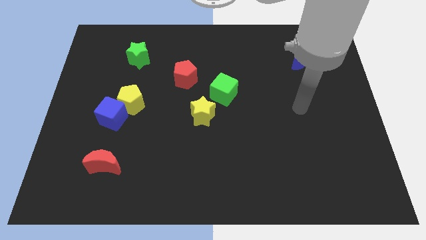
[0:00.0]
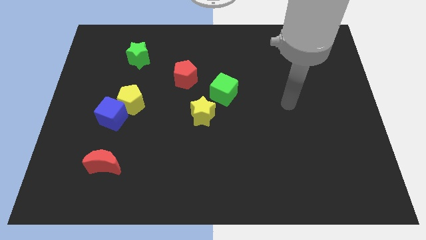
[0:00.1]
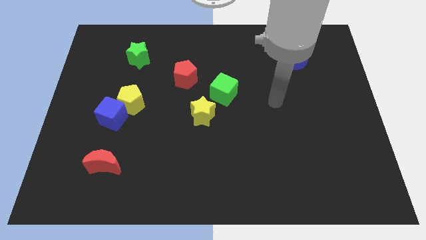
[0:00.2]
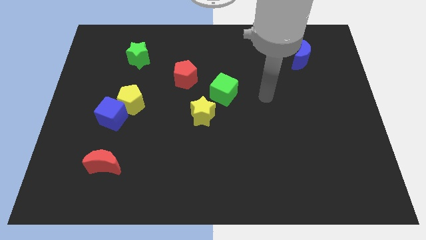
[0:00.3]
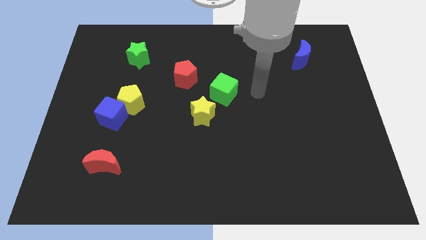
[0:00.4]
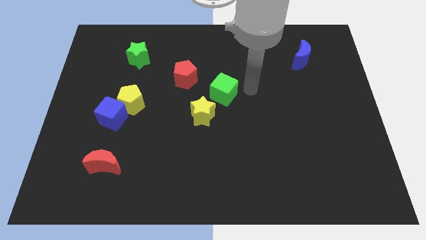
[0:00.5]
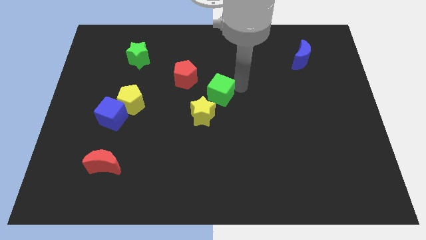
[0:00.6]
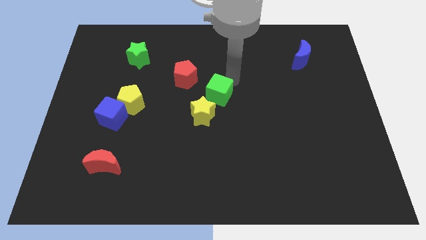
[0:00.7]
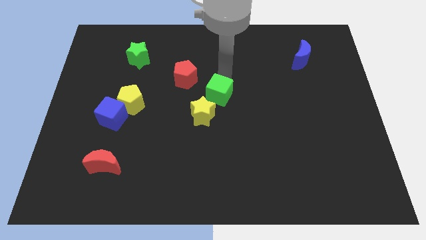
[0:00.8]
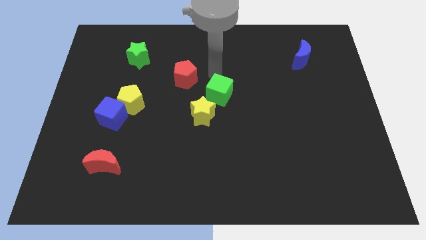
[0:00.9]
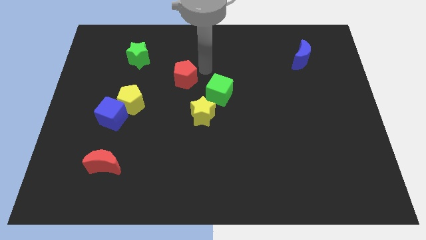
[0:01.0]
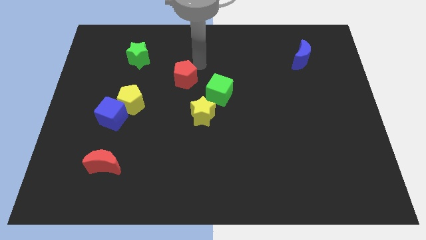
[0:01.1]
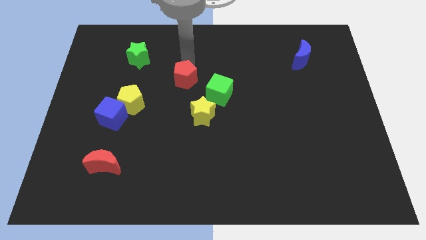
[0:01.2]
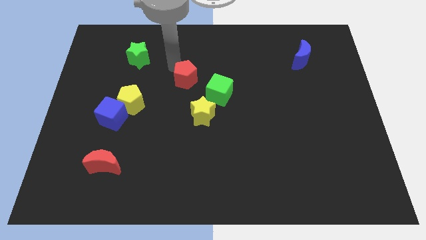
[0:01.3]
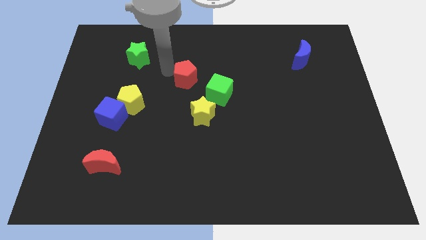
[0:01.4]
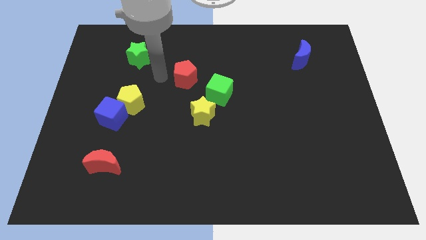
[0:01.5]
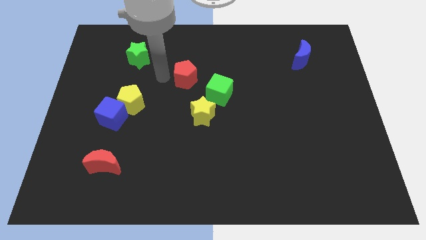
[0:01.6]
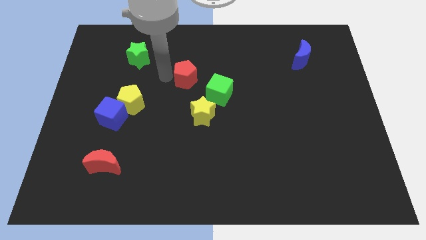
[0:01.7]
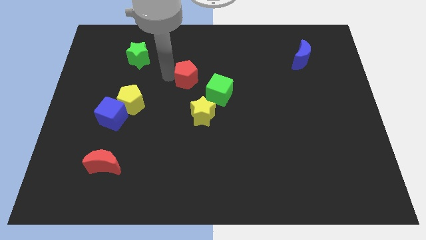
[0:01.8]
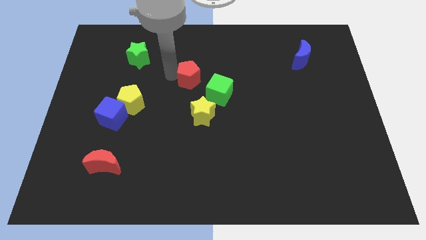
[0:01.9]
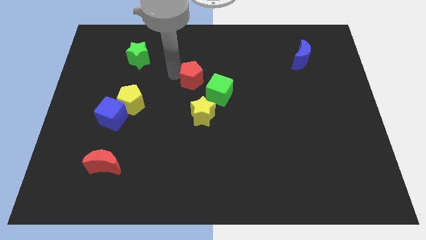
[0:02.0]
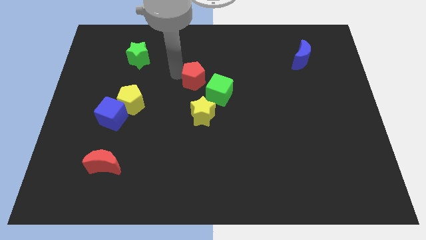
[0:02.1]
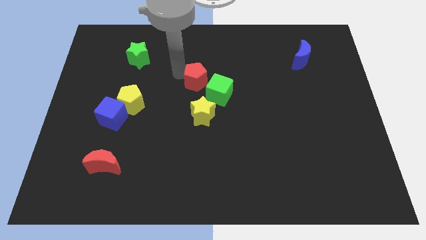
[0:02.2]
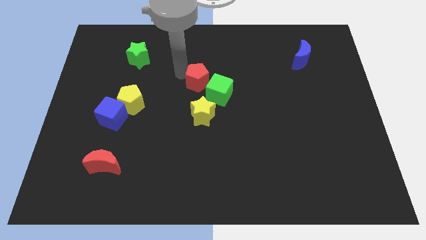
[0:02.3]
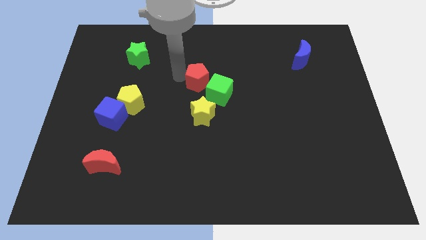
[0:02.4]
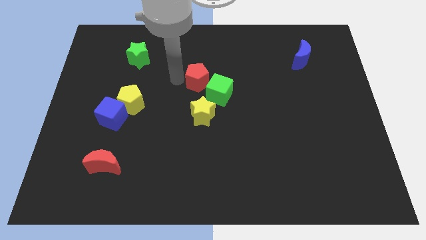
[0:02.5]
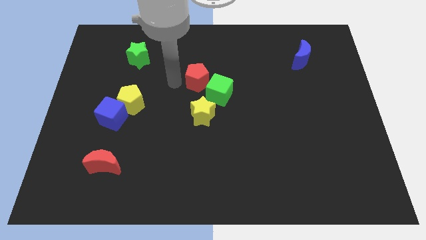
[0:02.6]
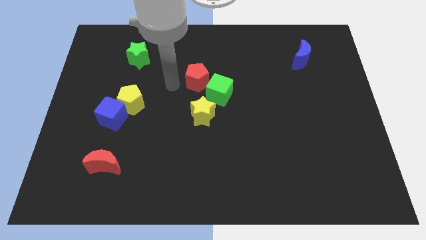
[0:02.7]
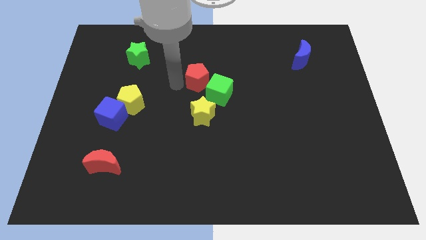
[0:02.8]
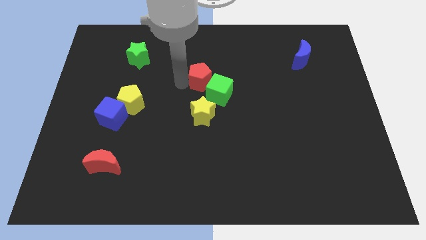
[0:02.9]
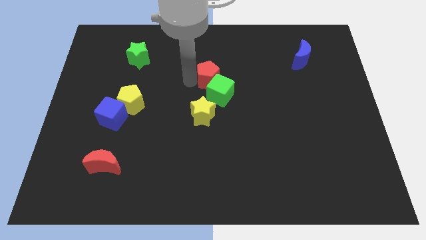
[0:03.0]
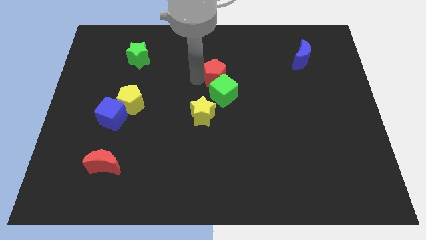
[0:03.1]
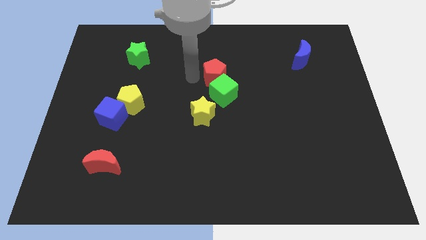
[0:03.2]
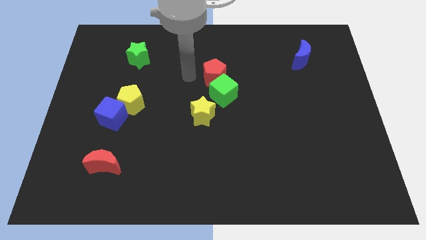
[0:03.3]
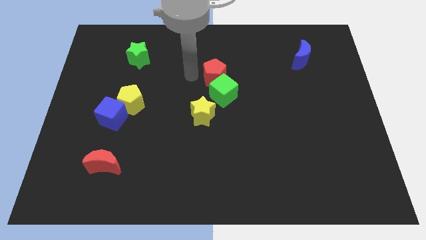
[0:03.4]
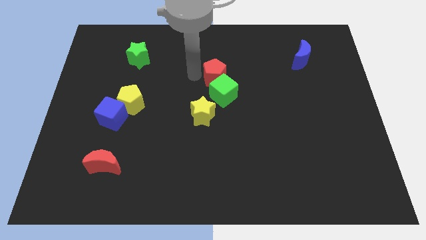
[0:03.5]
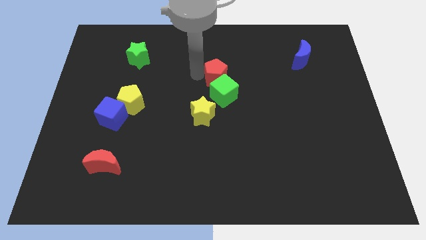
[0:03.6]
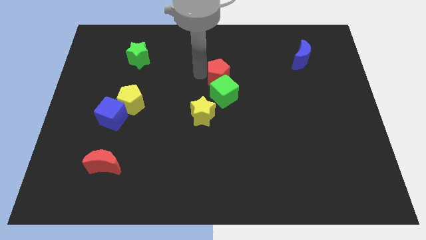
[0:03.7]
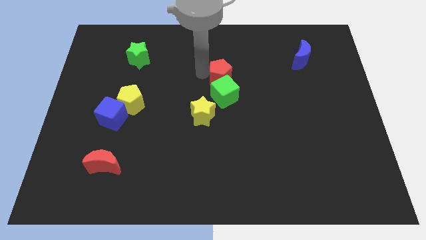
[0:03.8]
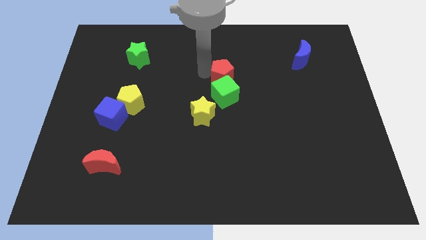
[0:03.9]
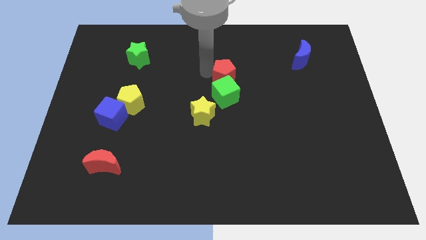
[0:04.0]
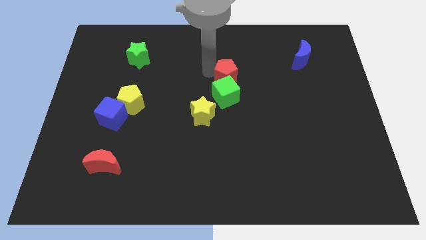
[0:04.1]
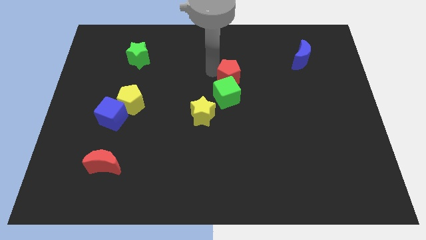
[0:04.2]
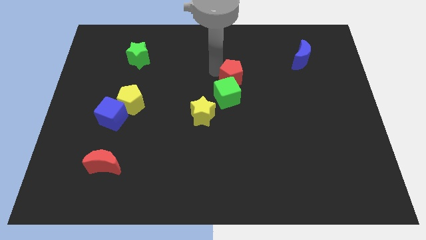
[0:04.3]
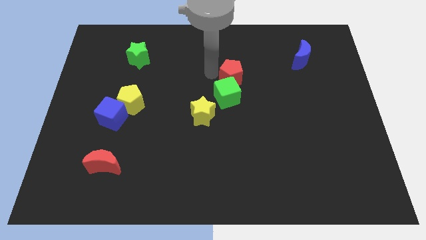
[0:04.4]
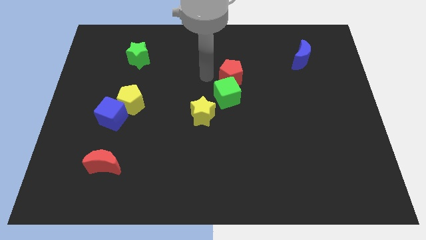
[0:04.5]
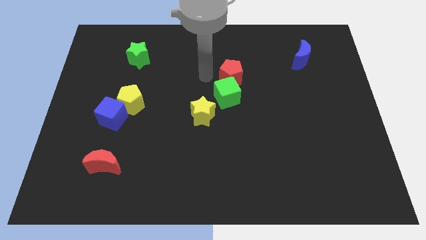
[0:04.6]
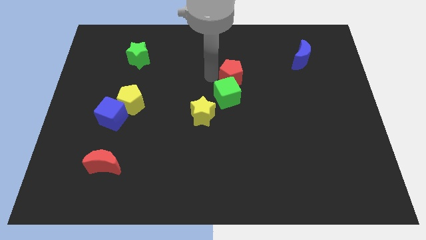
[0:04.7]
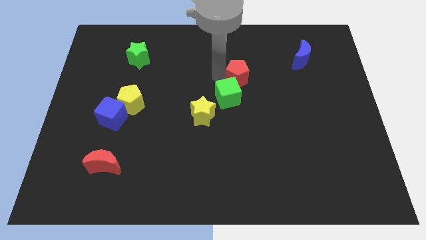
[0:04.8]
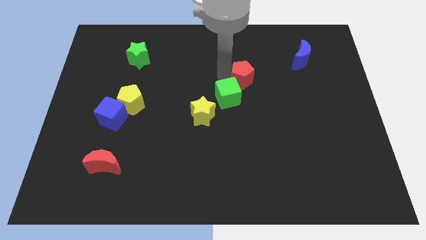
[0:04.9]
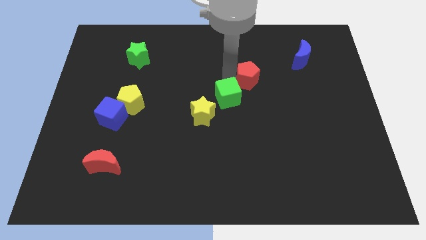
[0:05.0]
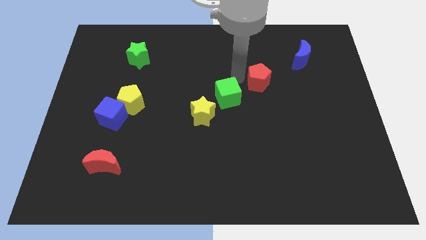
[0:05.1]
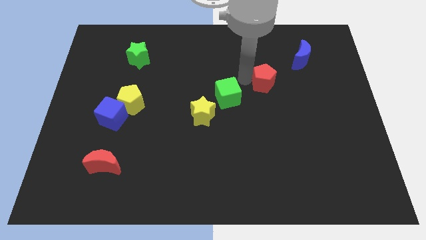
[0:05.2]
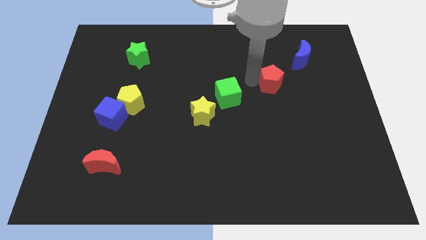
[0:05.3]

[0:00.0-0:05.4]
push the red pentagon diagonally down and to the left of the blue moon

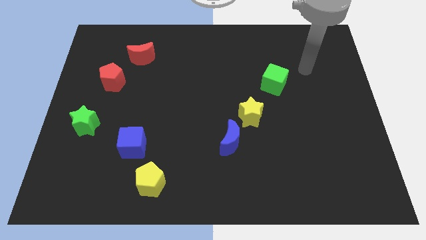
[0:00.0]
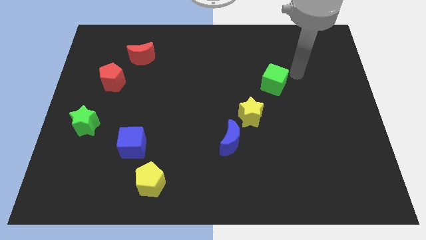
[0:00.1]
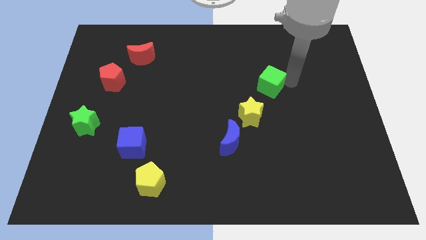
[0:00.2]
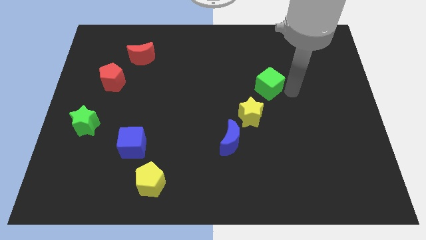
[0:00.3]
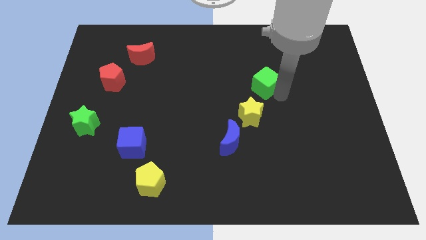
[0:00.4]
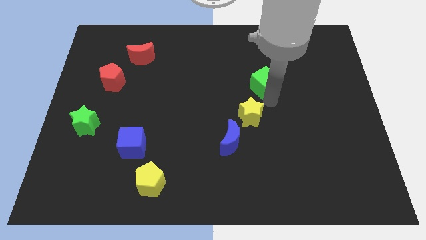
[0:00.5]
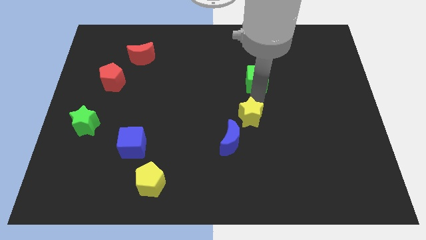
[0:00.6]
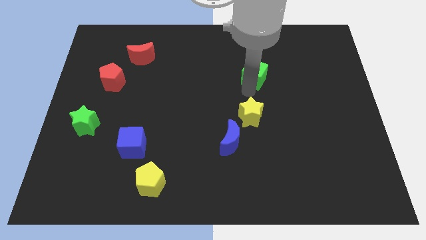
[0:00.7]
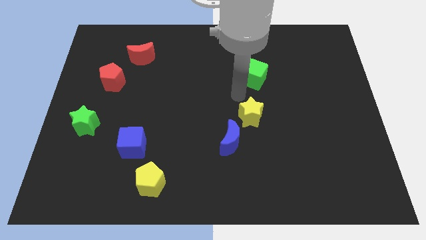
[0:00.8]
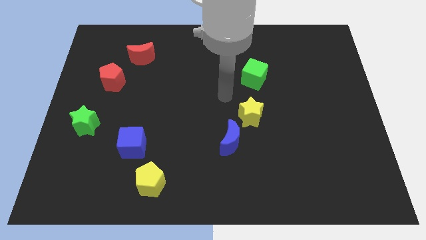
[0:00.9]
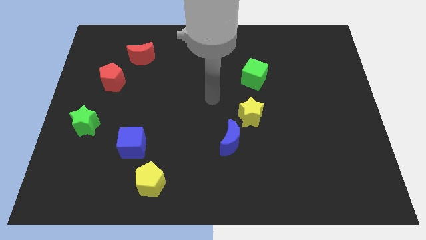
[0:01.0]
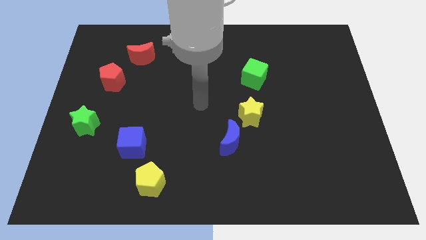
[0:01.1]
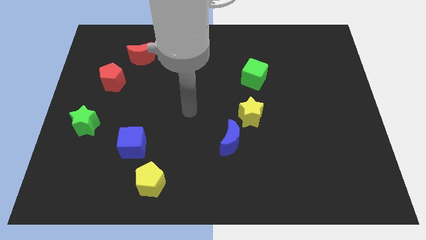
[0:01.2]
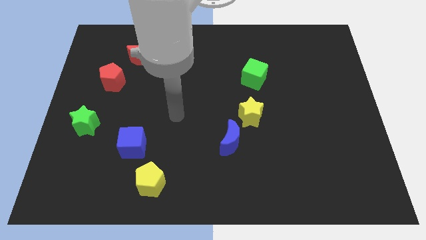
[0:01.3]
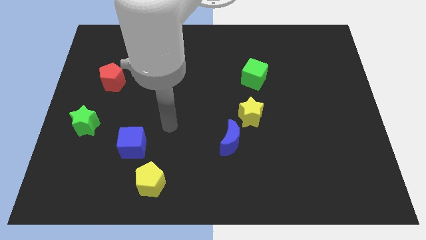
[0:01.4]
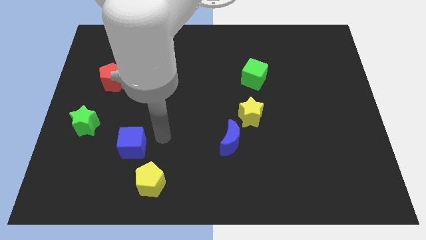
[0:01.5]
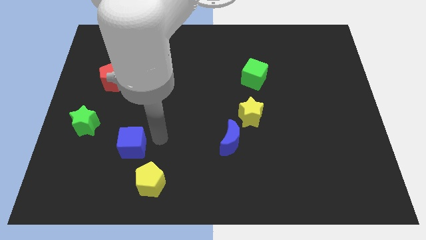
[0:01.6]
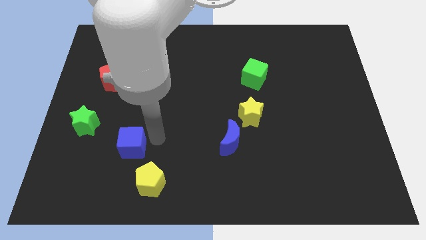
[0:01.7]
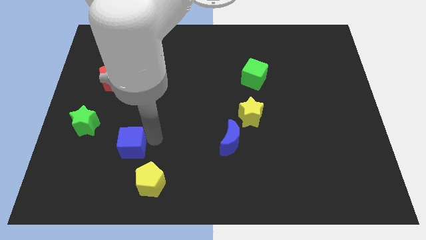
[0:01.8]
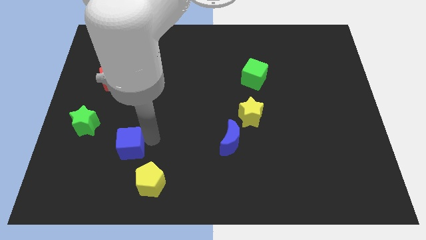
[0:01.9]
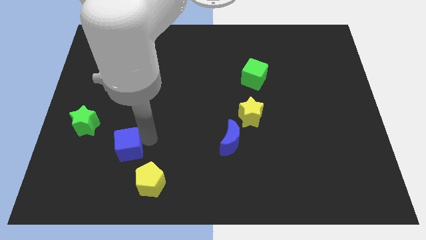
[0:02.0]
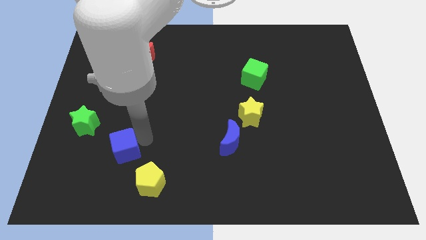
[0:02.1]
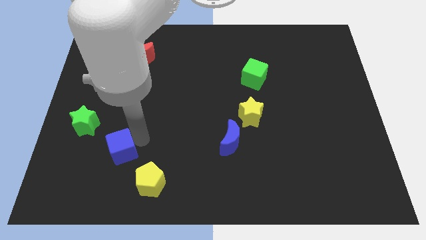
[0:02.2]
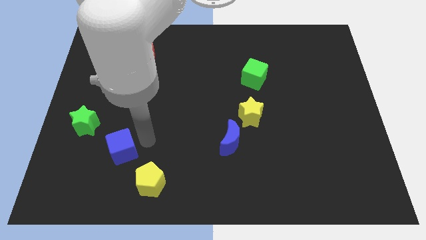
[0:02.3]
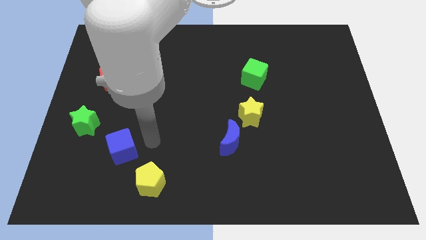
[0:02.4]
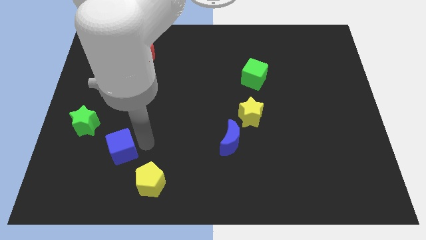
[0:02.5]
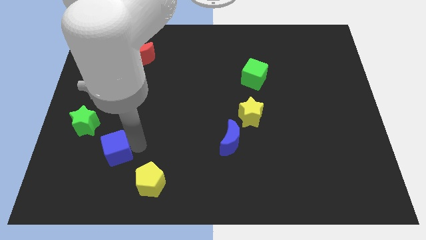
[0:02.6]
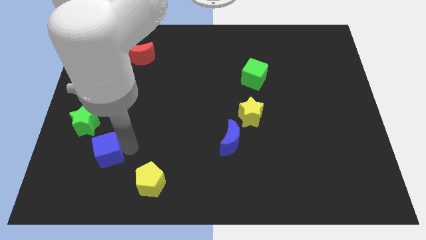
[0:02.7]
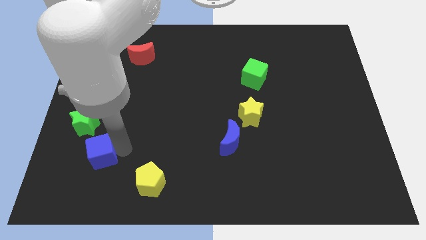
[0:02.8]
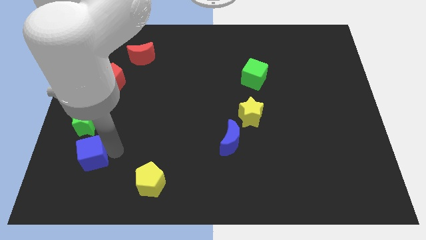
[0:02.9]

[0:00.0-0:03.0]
put the blue cube to the bottom of the green star
